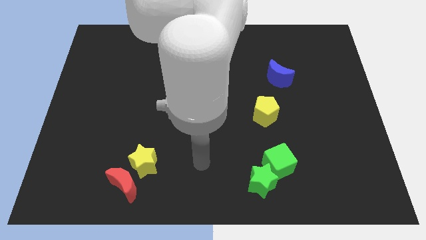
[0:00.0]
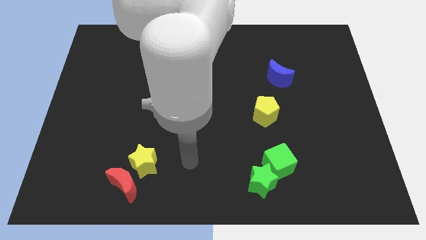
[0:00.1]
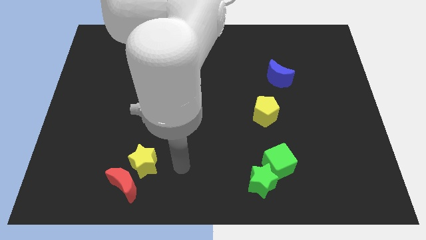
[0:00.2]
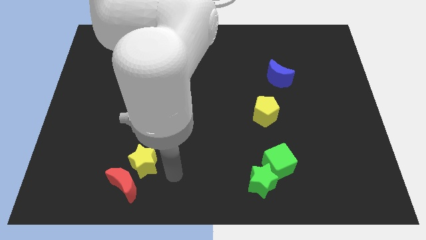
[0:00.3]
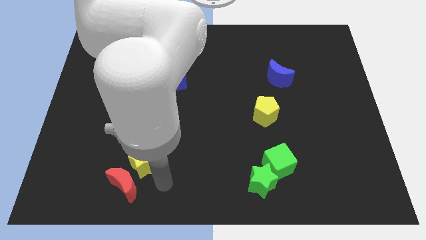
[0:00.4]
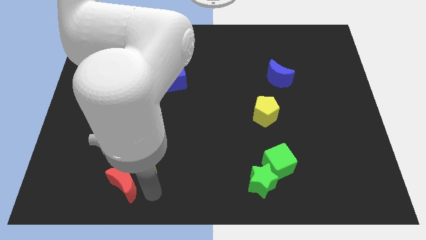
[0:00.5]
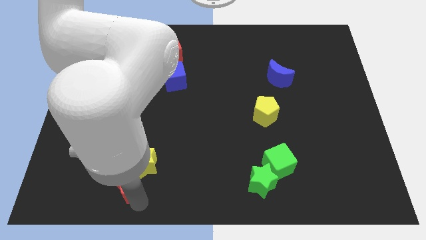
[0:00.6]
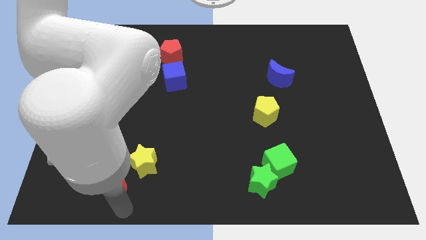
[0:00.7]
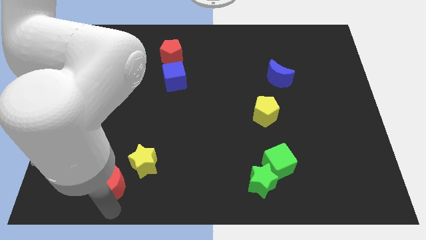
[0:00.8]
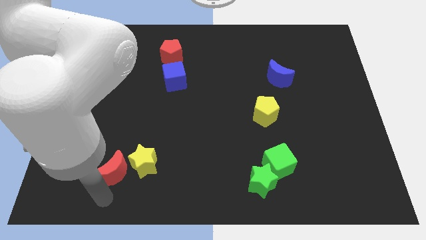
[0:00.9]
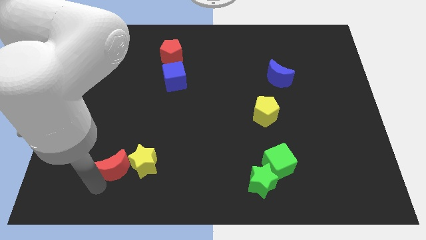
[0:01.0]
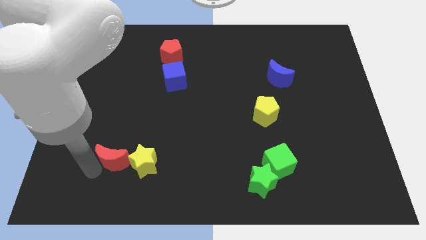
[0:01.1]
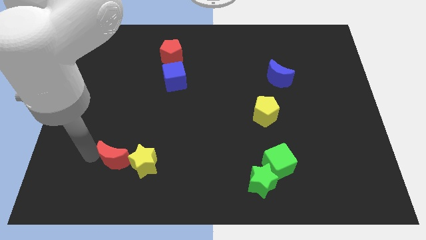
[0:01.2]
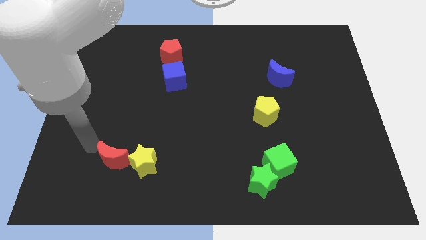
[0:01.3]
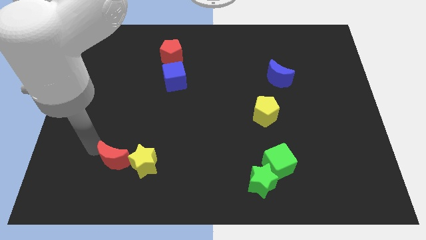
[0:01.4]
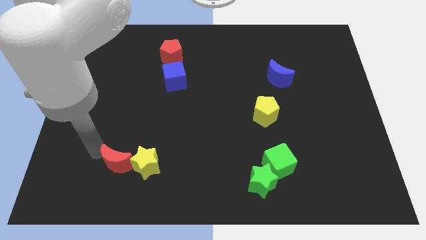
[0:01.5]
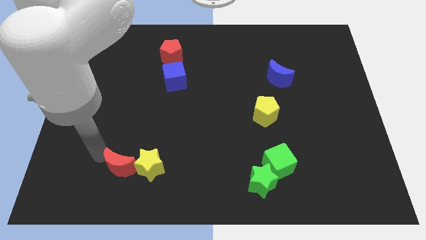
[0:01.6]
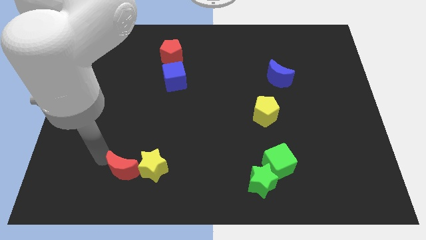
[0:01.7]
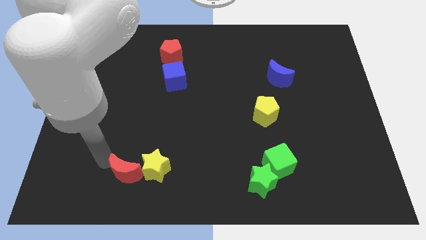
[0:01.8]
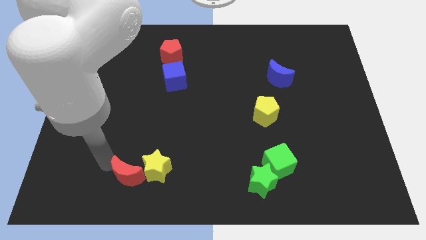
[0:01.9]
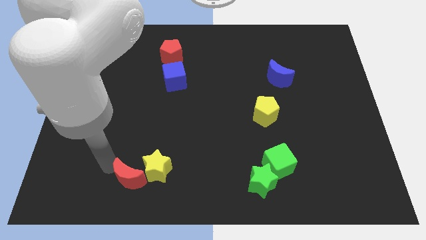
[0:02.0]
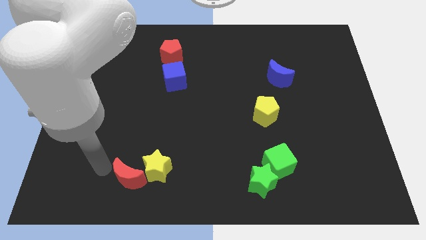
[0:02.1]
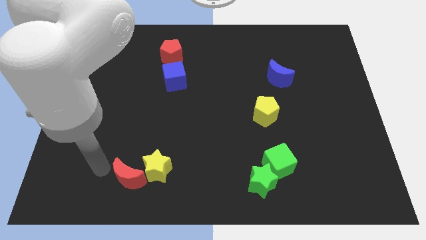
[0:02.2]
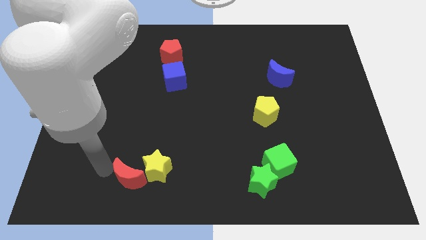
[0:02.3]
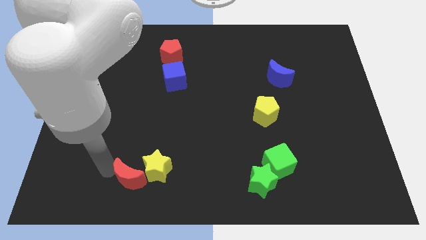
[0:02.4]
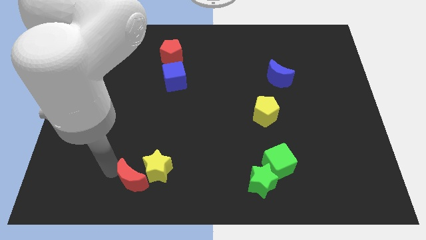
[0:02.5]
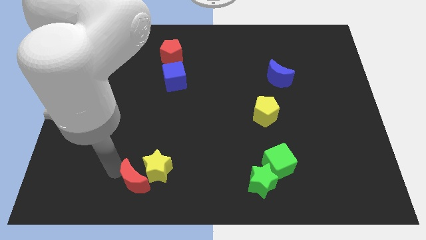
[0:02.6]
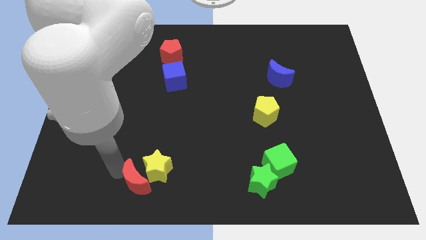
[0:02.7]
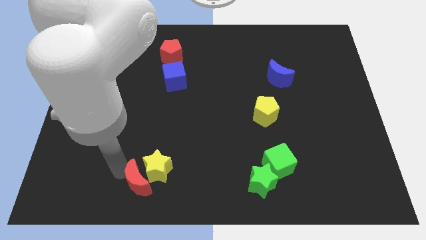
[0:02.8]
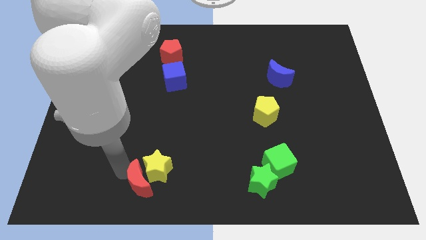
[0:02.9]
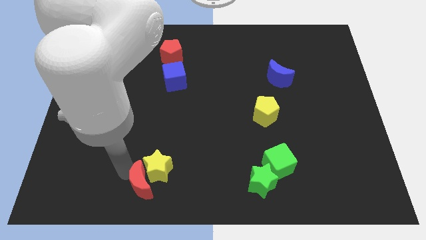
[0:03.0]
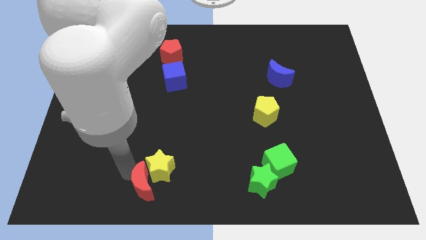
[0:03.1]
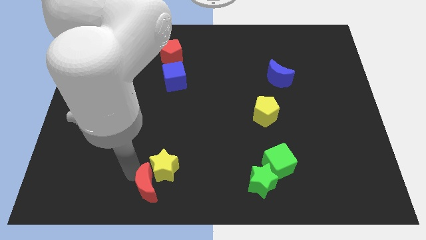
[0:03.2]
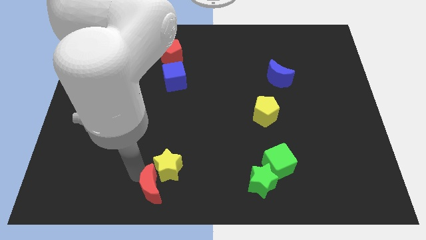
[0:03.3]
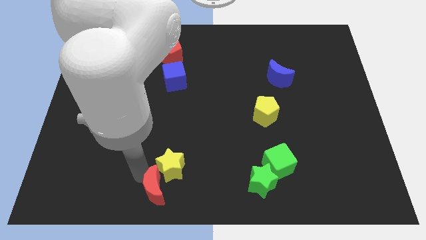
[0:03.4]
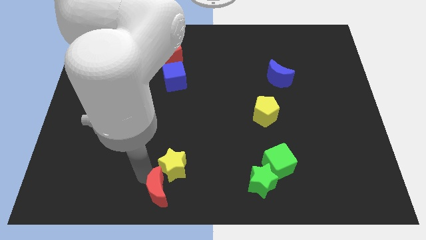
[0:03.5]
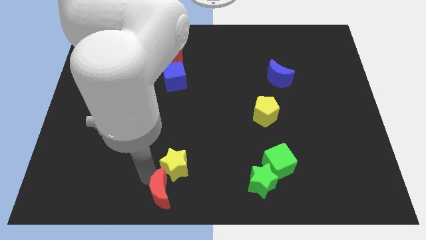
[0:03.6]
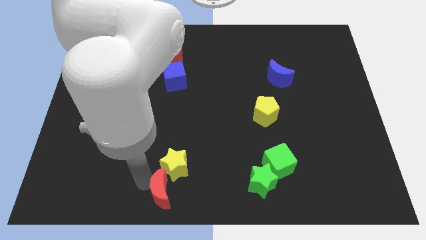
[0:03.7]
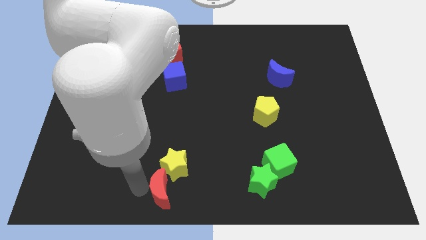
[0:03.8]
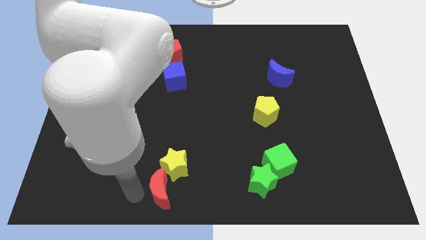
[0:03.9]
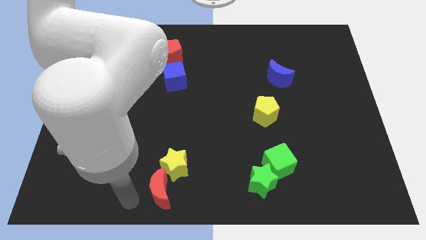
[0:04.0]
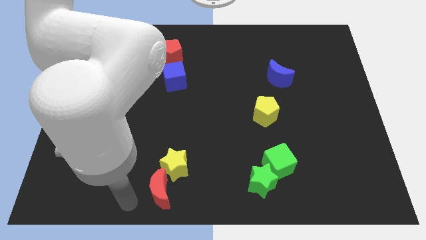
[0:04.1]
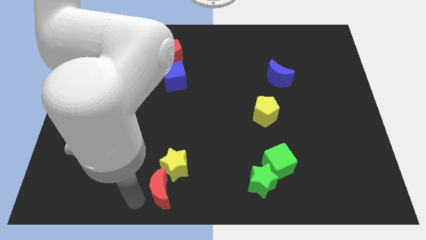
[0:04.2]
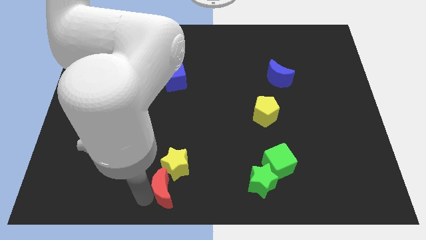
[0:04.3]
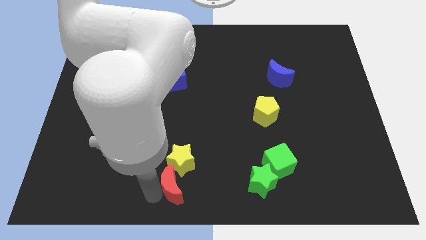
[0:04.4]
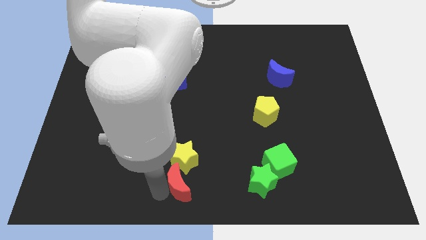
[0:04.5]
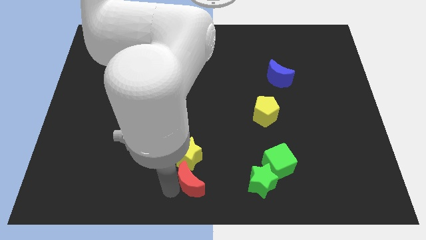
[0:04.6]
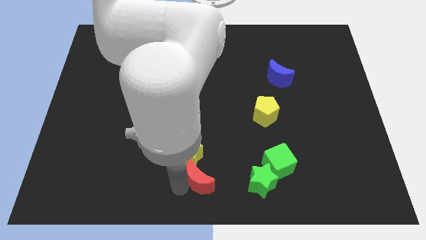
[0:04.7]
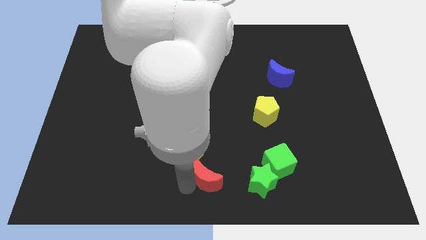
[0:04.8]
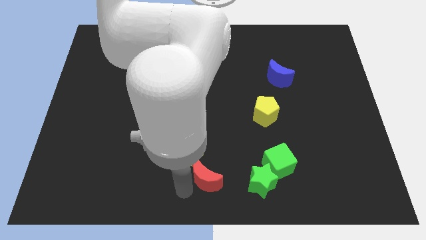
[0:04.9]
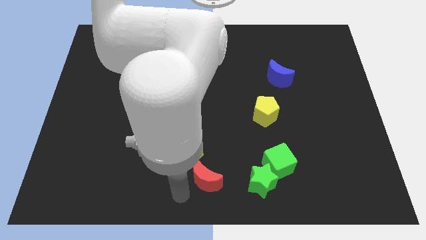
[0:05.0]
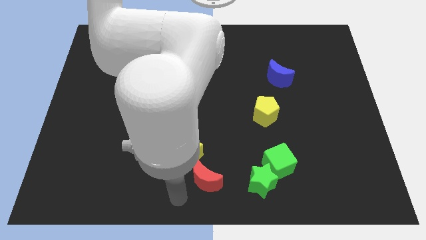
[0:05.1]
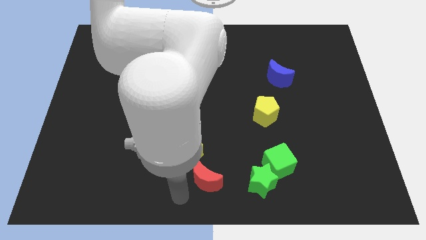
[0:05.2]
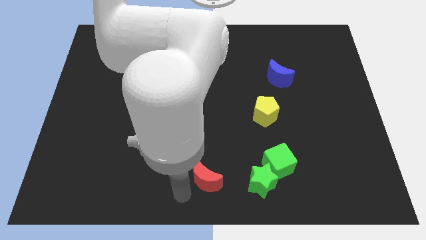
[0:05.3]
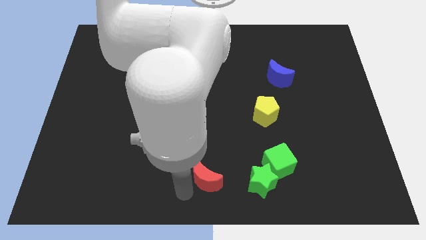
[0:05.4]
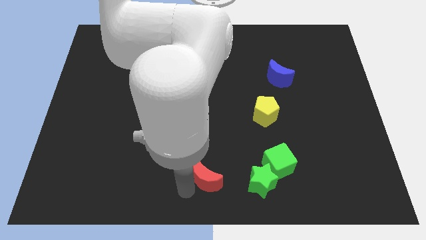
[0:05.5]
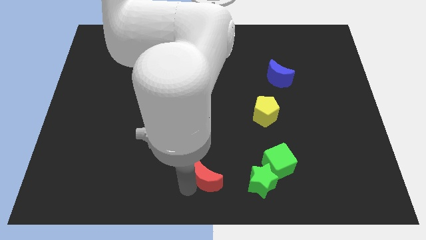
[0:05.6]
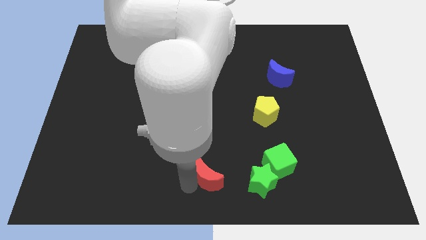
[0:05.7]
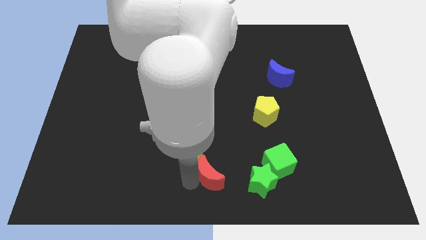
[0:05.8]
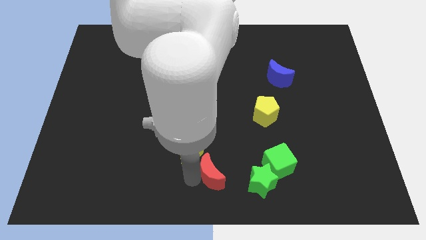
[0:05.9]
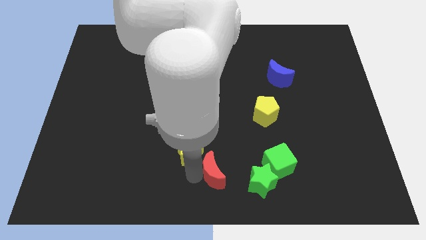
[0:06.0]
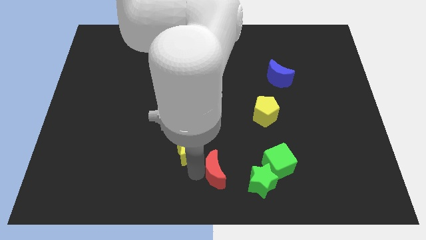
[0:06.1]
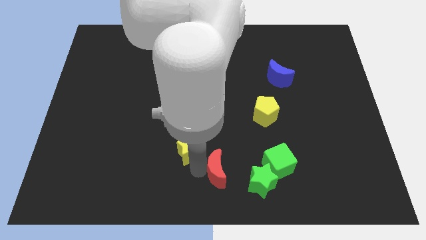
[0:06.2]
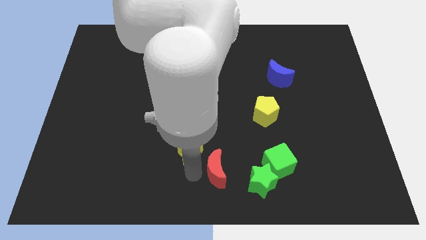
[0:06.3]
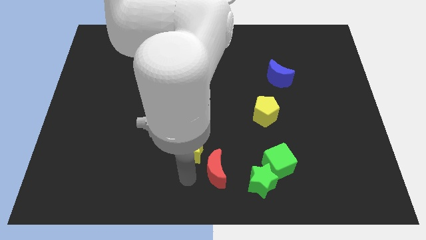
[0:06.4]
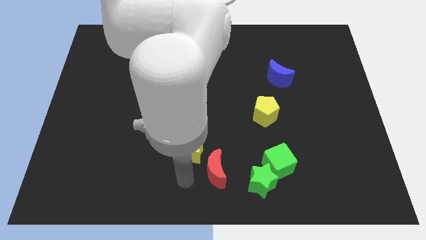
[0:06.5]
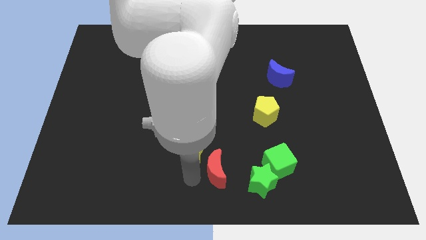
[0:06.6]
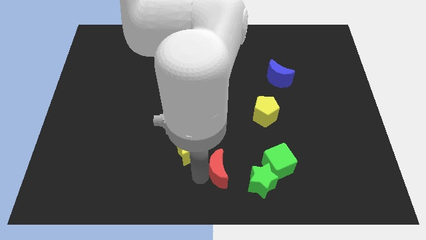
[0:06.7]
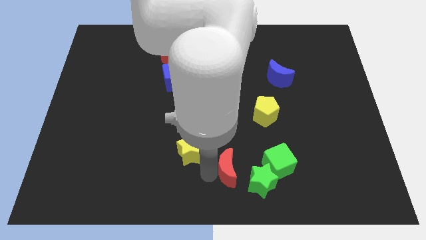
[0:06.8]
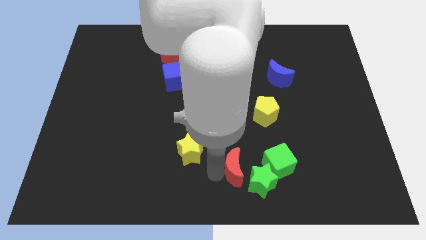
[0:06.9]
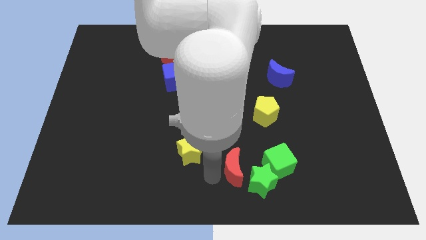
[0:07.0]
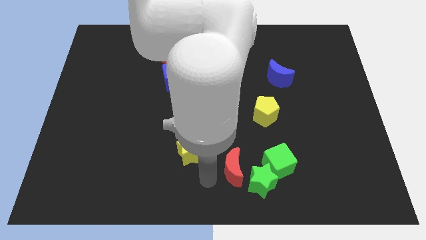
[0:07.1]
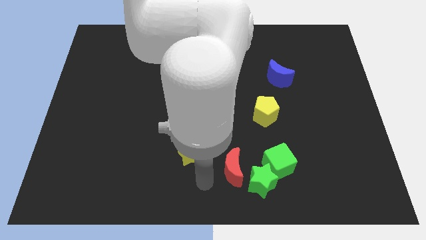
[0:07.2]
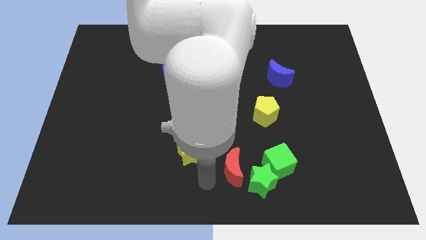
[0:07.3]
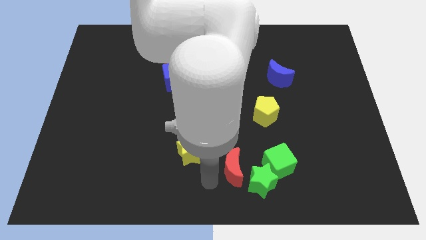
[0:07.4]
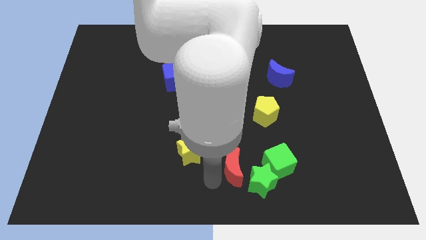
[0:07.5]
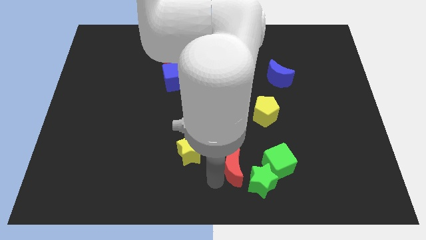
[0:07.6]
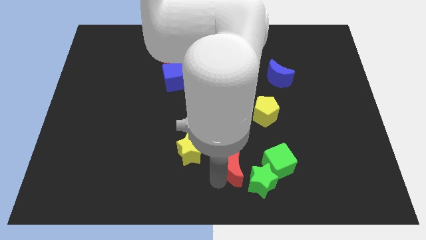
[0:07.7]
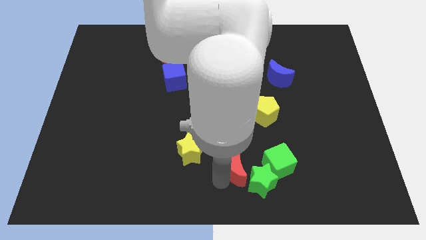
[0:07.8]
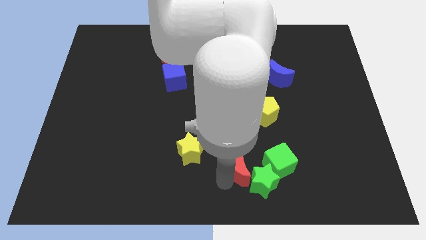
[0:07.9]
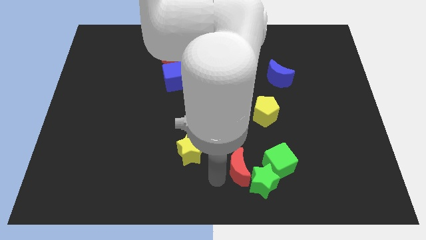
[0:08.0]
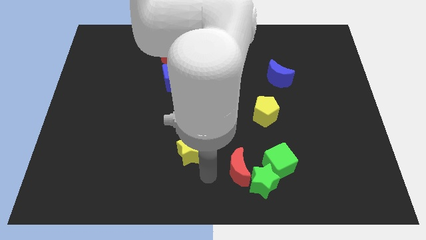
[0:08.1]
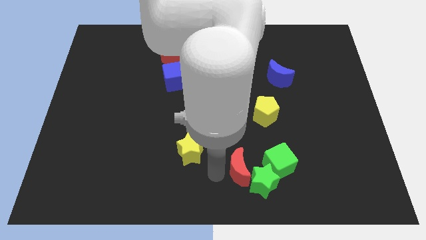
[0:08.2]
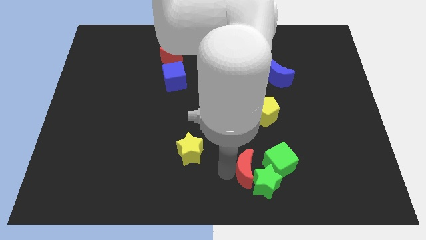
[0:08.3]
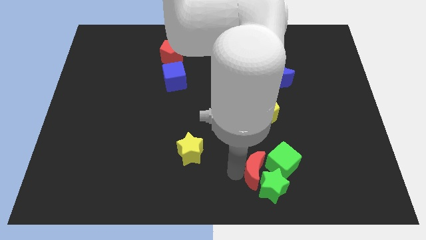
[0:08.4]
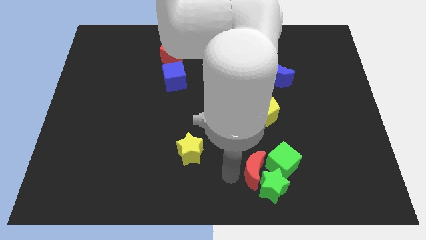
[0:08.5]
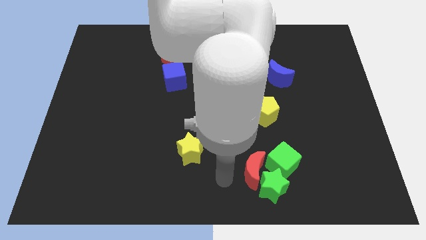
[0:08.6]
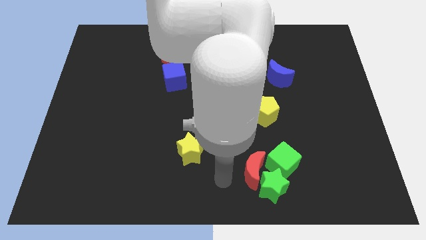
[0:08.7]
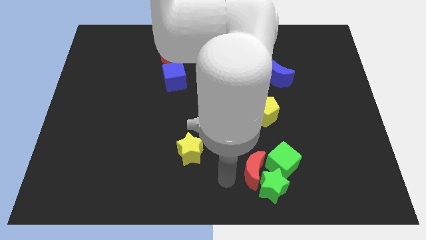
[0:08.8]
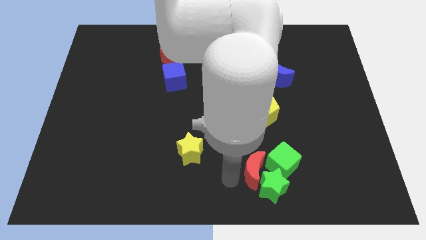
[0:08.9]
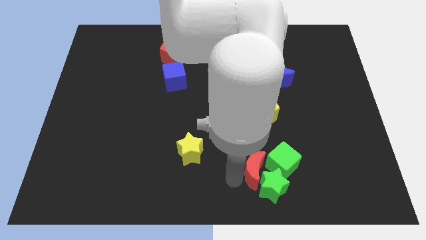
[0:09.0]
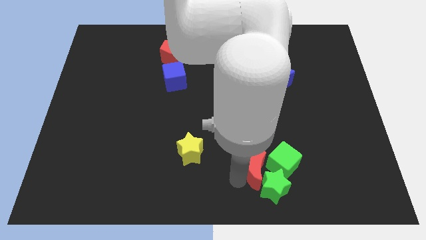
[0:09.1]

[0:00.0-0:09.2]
push the red moon to the green cube
